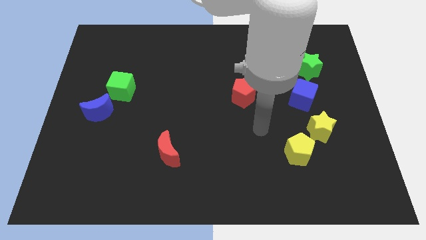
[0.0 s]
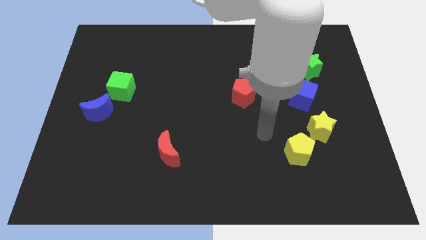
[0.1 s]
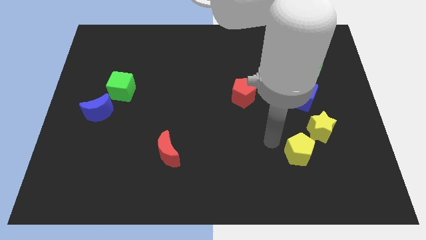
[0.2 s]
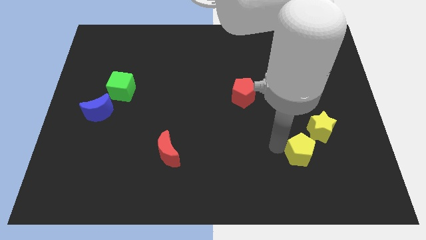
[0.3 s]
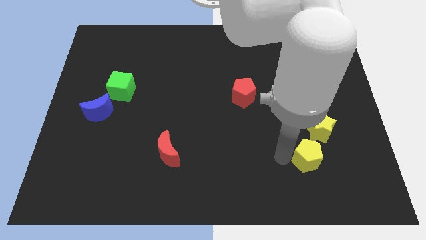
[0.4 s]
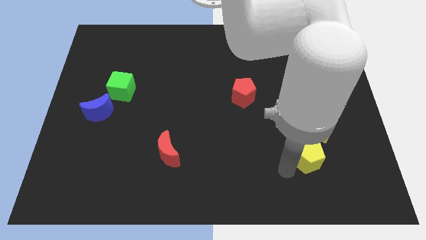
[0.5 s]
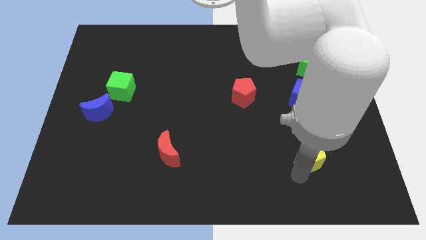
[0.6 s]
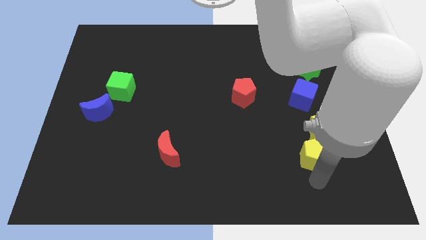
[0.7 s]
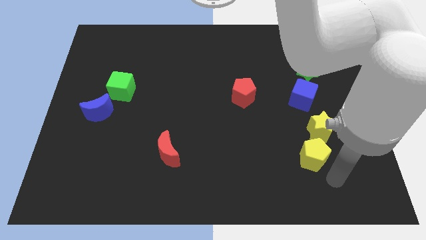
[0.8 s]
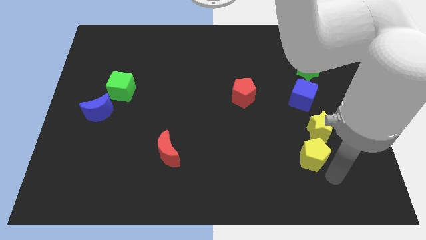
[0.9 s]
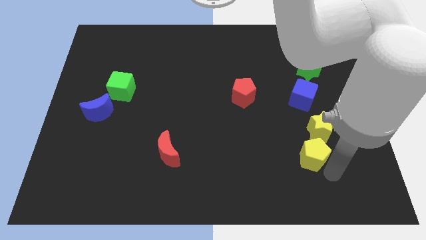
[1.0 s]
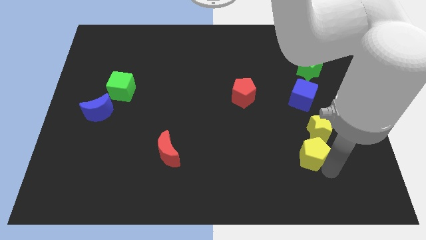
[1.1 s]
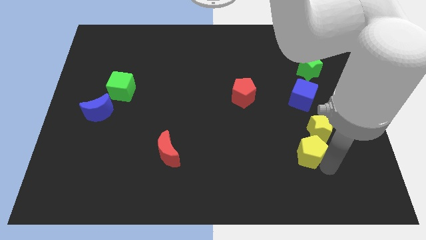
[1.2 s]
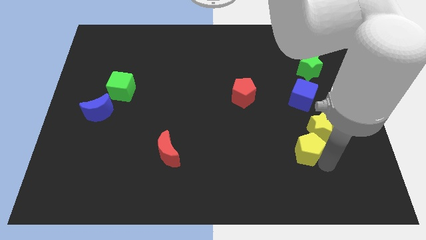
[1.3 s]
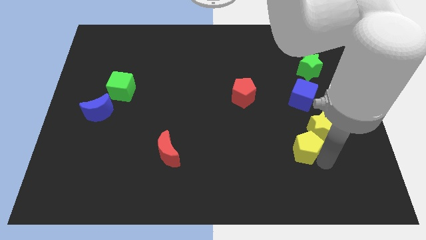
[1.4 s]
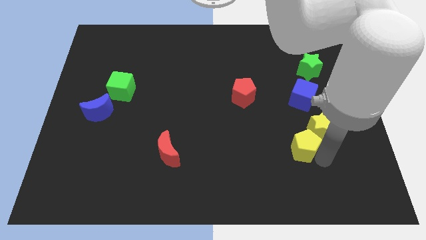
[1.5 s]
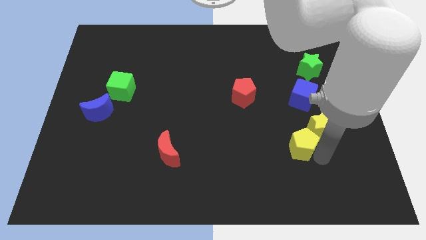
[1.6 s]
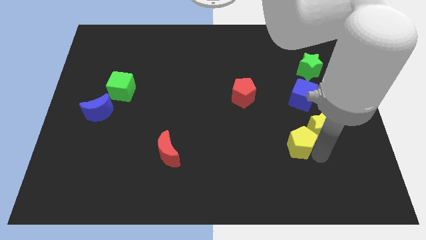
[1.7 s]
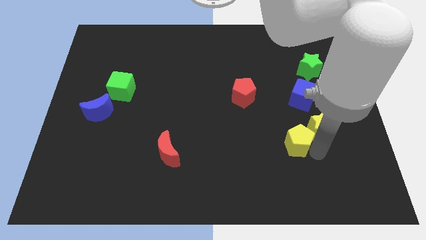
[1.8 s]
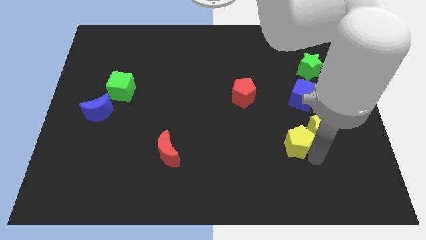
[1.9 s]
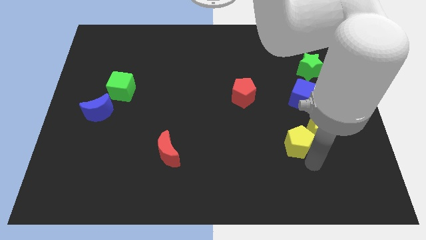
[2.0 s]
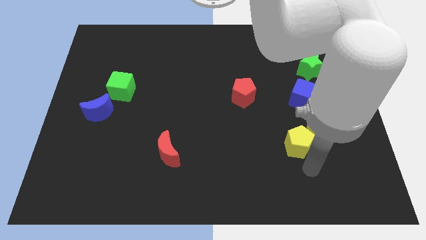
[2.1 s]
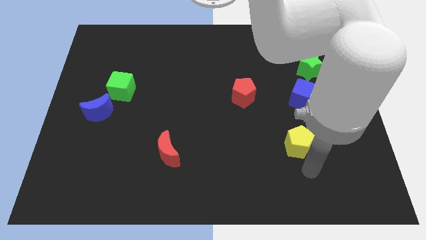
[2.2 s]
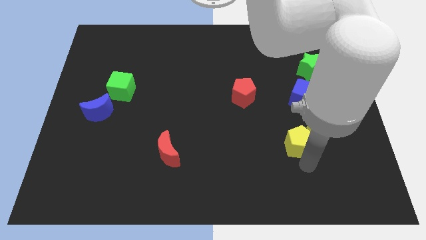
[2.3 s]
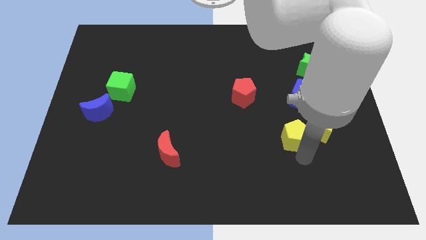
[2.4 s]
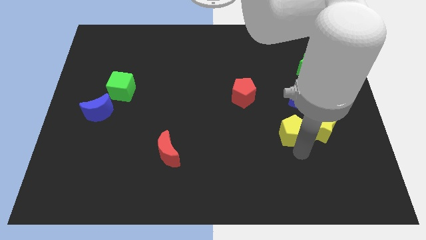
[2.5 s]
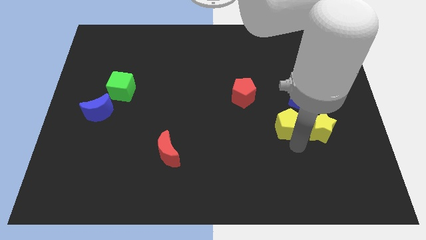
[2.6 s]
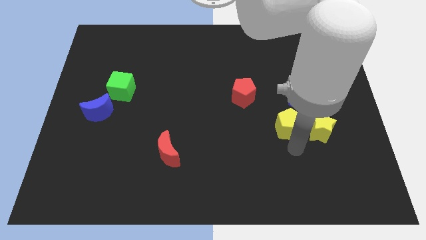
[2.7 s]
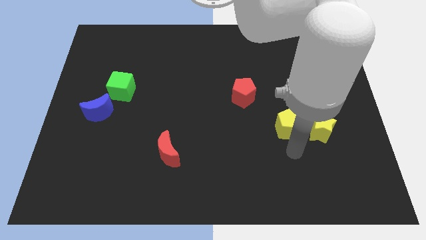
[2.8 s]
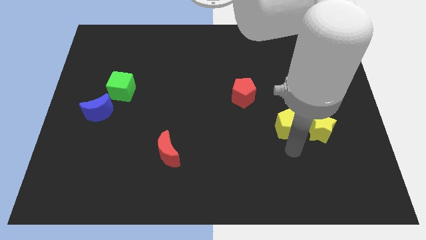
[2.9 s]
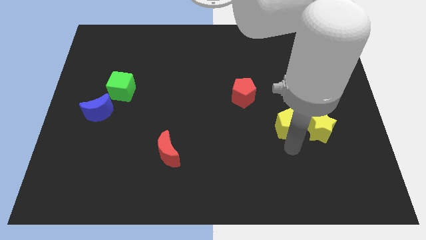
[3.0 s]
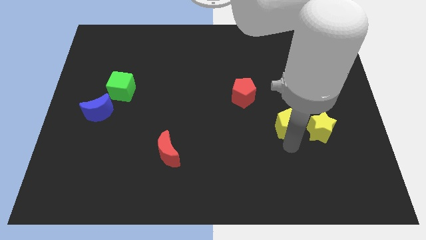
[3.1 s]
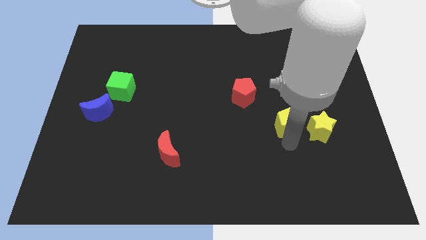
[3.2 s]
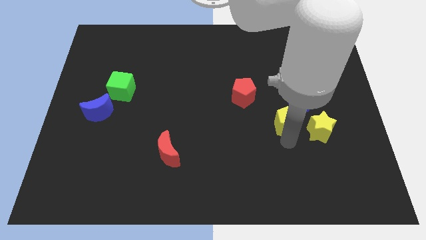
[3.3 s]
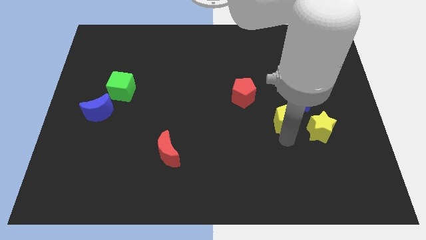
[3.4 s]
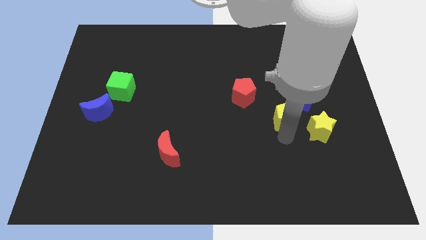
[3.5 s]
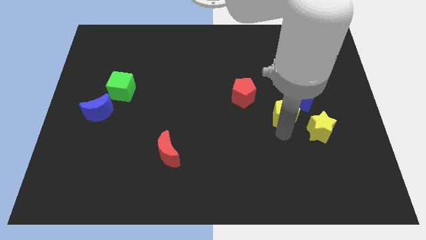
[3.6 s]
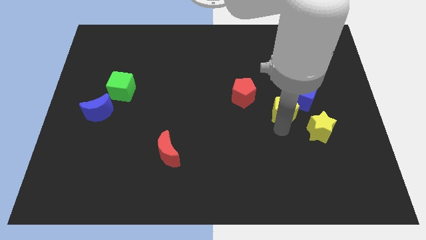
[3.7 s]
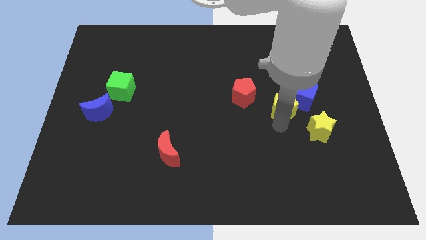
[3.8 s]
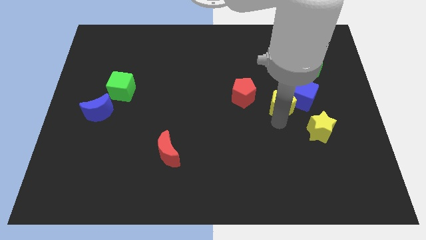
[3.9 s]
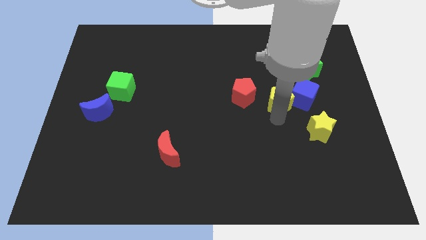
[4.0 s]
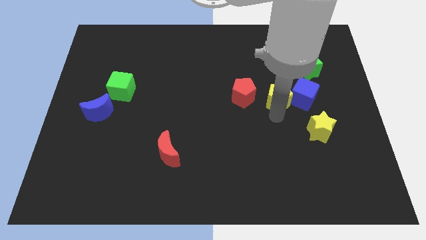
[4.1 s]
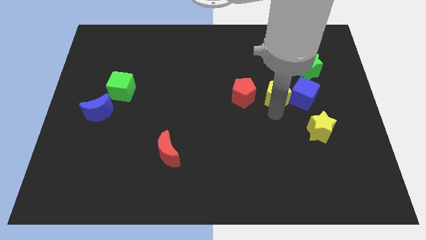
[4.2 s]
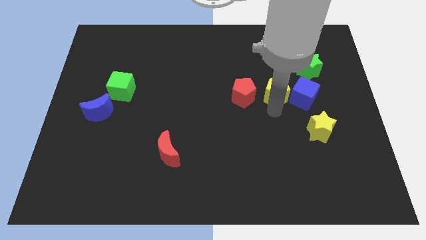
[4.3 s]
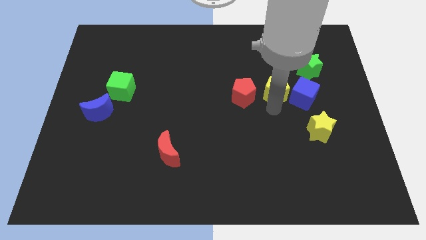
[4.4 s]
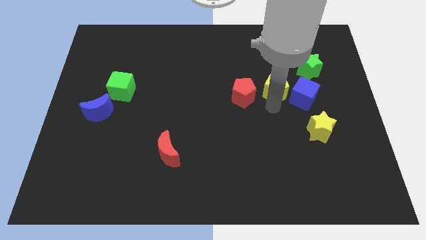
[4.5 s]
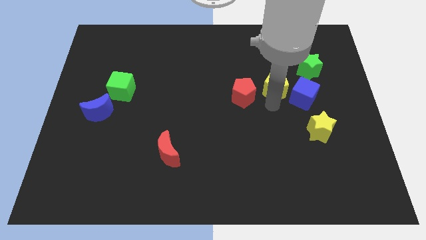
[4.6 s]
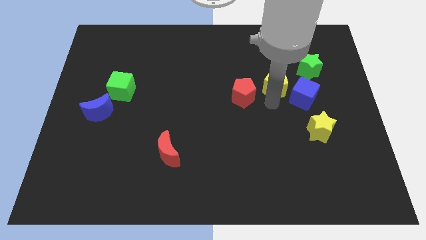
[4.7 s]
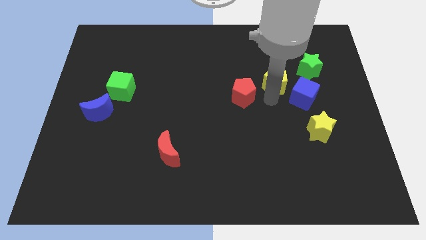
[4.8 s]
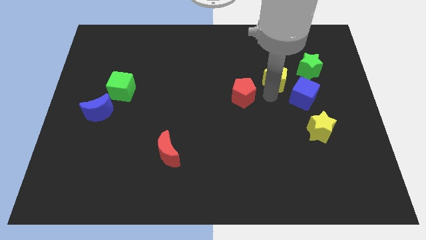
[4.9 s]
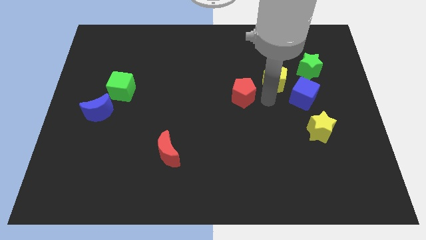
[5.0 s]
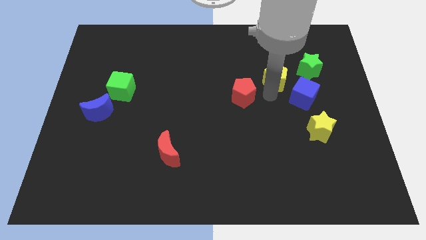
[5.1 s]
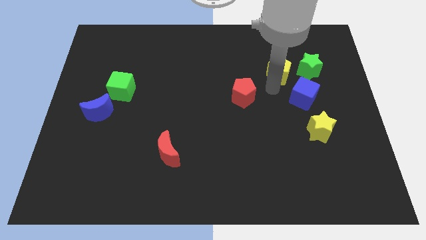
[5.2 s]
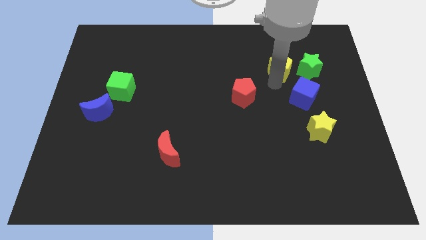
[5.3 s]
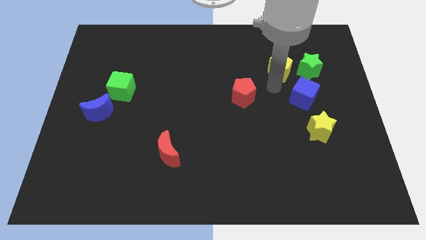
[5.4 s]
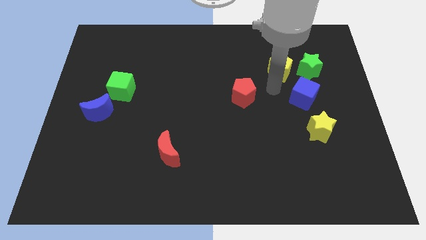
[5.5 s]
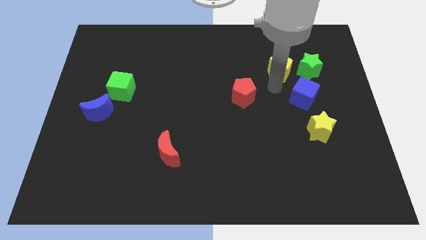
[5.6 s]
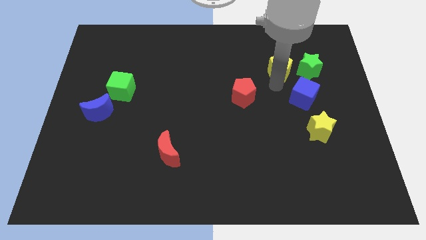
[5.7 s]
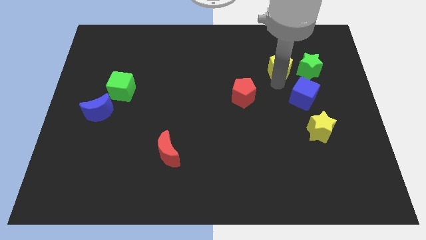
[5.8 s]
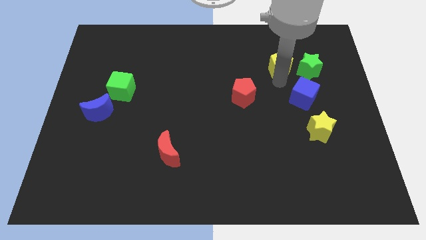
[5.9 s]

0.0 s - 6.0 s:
put the yellow pentagon to the top left of the green star

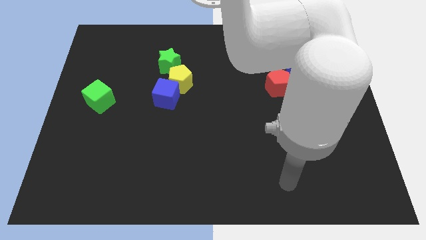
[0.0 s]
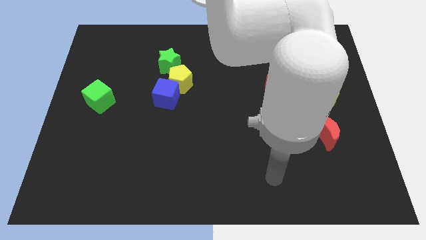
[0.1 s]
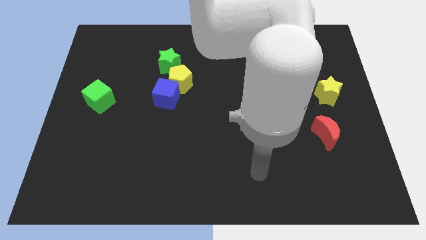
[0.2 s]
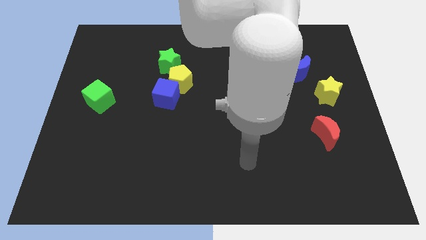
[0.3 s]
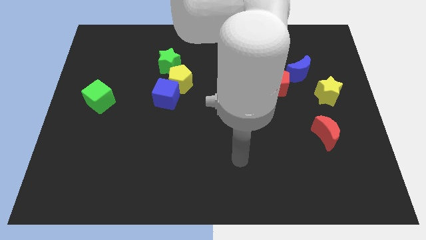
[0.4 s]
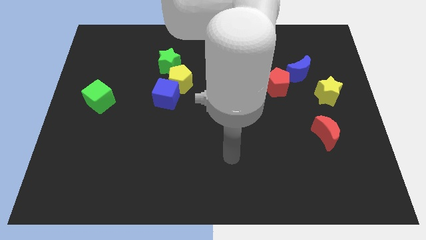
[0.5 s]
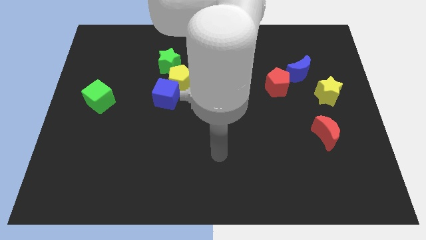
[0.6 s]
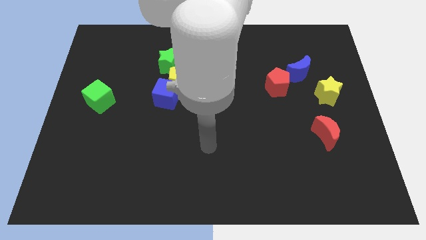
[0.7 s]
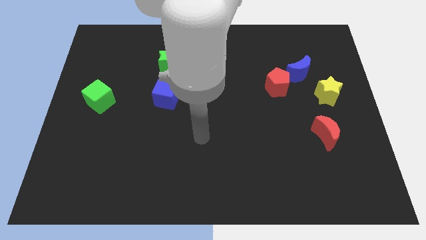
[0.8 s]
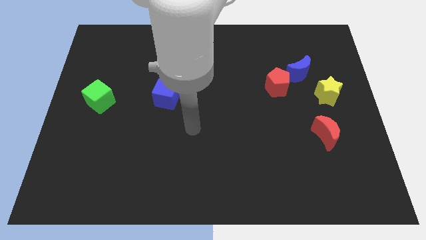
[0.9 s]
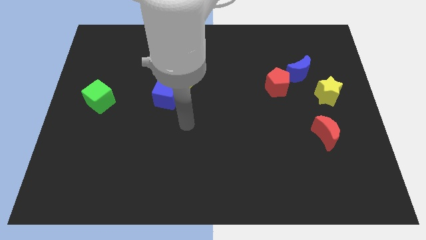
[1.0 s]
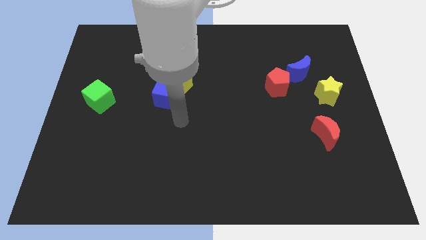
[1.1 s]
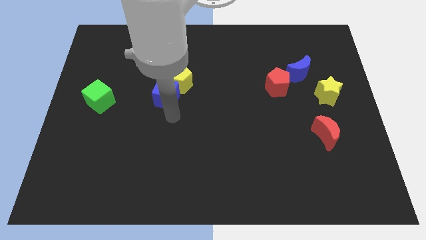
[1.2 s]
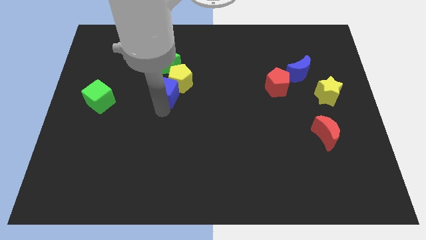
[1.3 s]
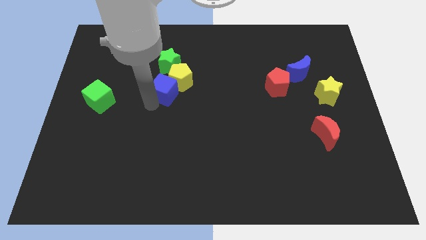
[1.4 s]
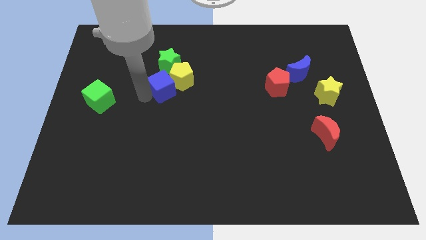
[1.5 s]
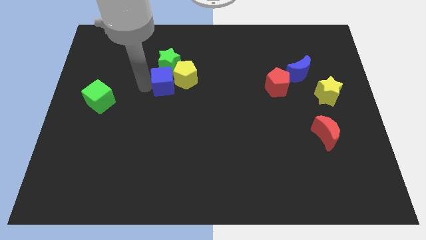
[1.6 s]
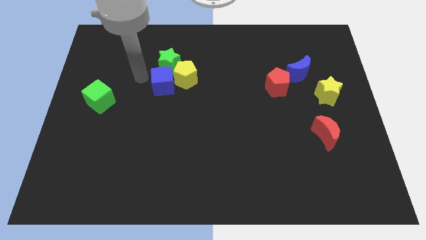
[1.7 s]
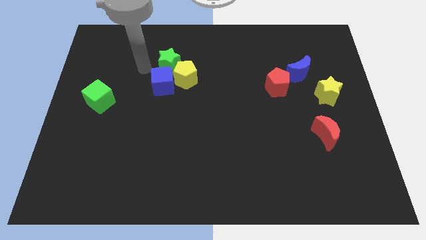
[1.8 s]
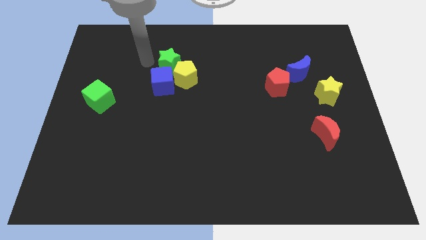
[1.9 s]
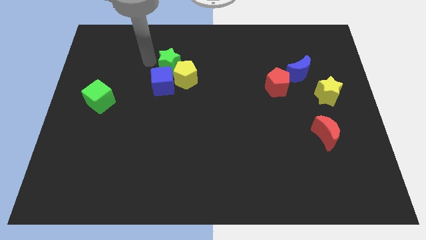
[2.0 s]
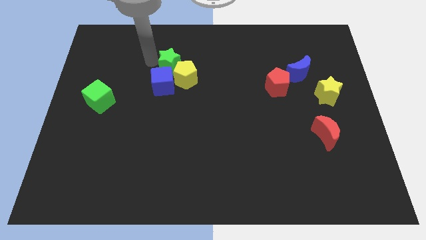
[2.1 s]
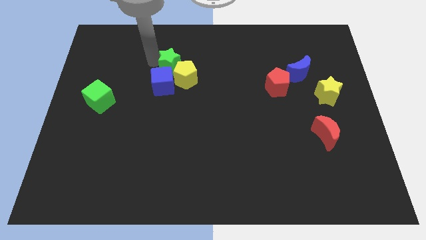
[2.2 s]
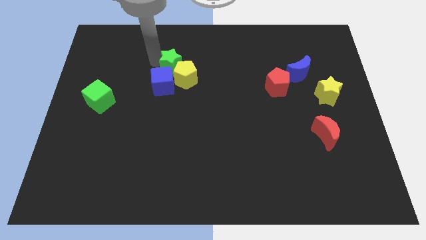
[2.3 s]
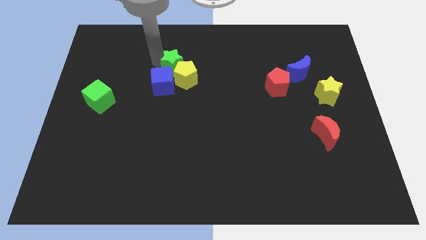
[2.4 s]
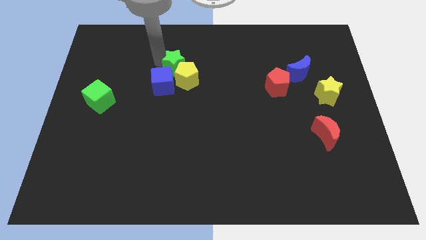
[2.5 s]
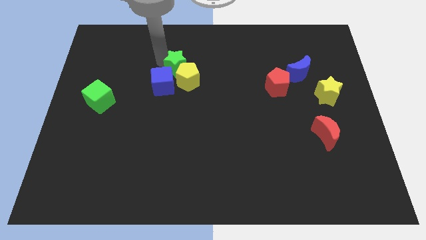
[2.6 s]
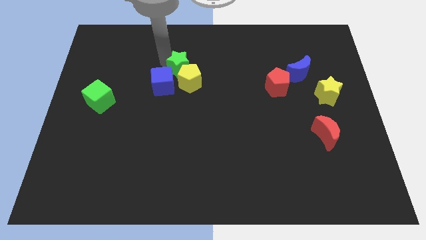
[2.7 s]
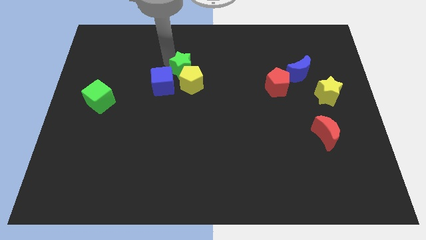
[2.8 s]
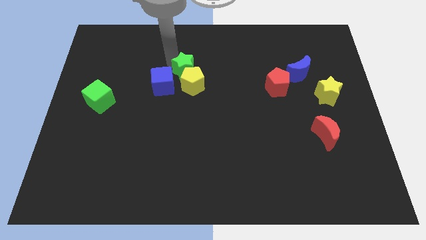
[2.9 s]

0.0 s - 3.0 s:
put the green star just right of the blue cube
